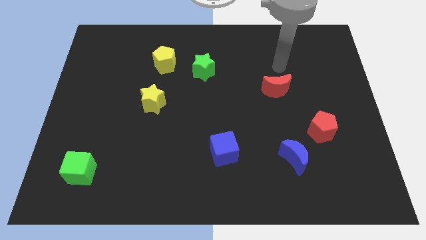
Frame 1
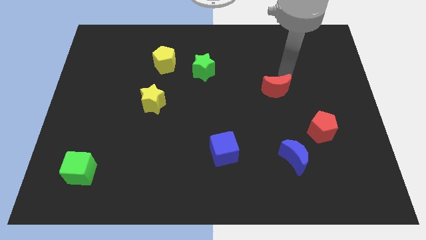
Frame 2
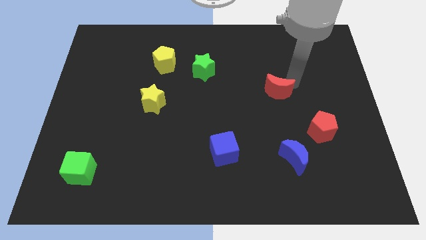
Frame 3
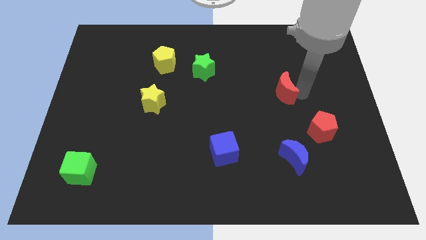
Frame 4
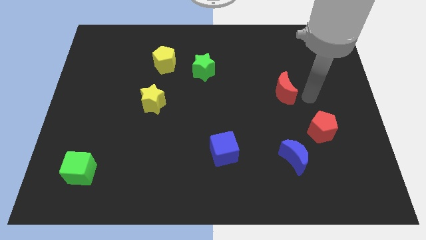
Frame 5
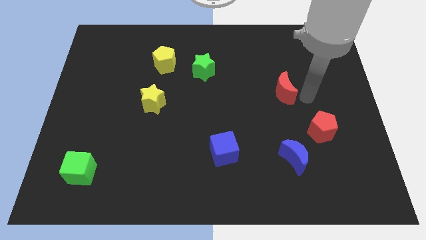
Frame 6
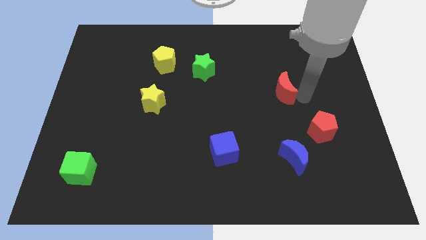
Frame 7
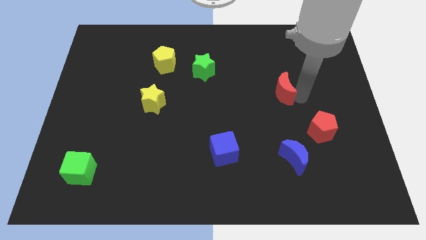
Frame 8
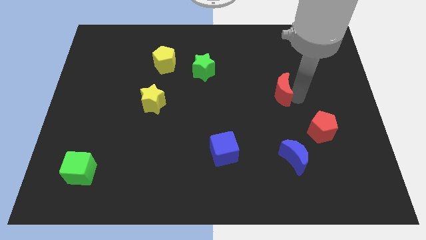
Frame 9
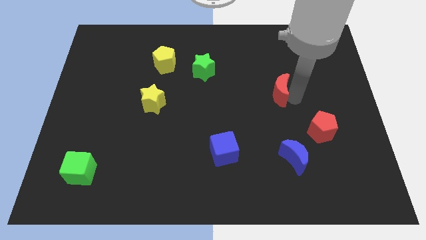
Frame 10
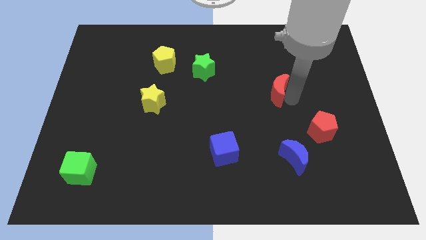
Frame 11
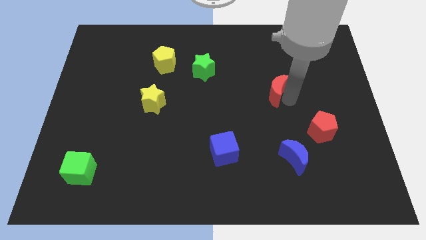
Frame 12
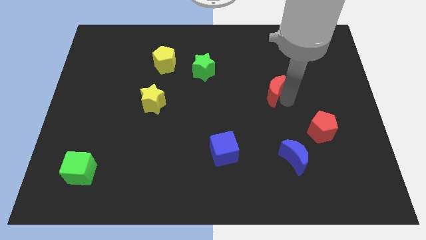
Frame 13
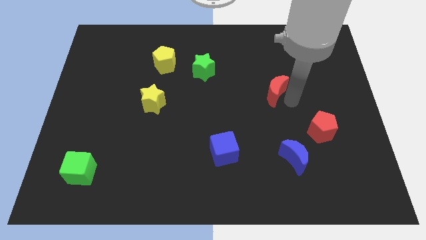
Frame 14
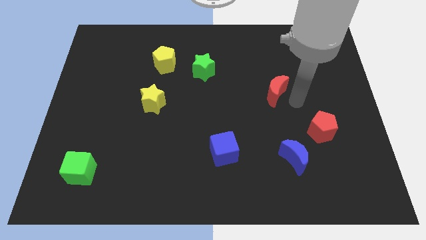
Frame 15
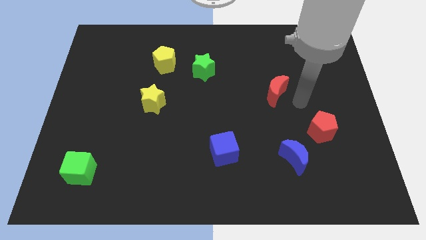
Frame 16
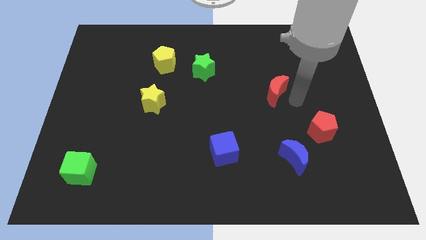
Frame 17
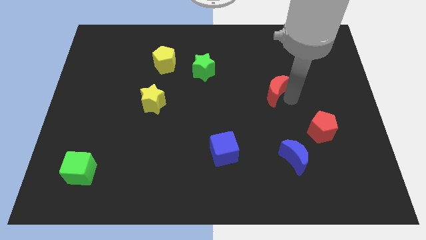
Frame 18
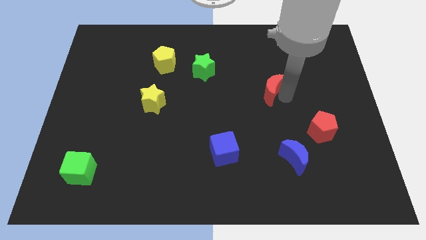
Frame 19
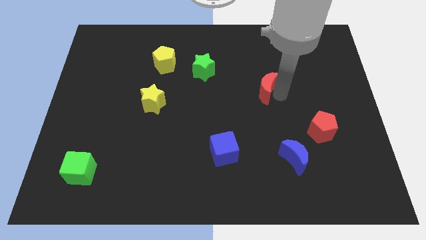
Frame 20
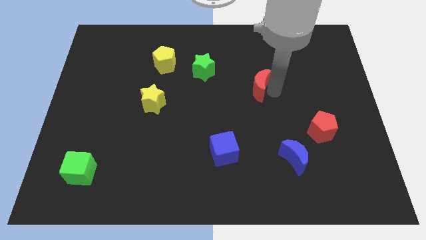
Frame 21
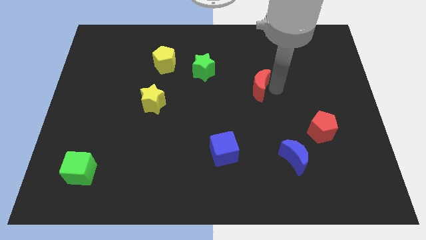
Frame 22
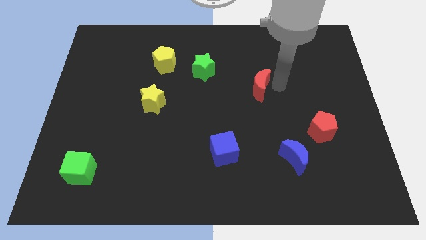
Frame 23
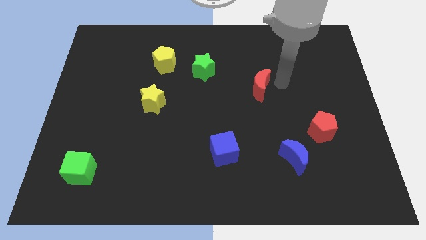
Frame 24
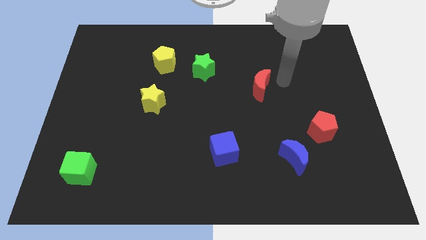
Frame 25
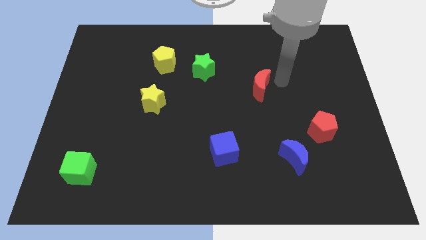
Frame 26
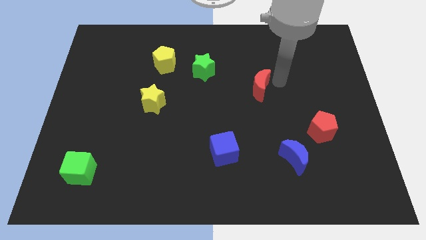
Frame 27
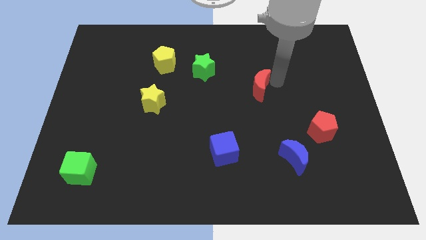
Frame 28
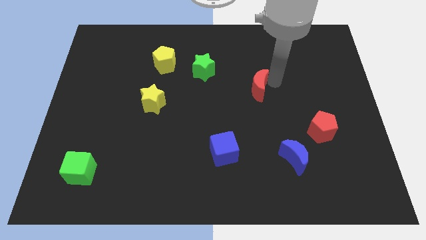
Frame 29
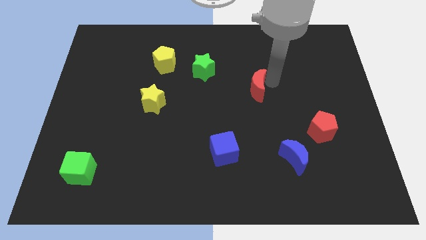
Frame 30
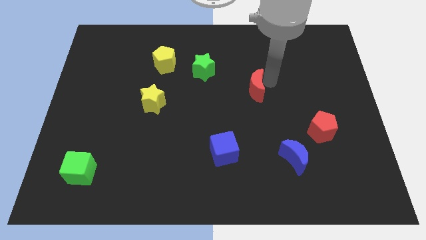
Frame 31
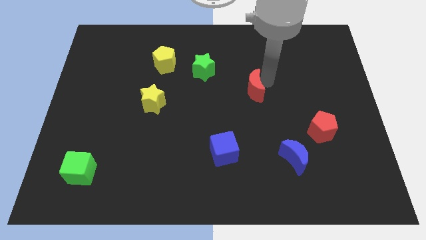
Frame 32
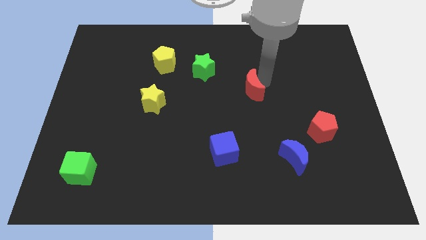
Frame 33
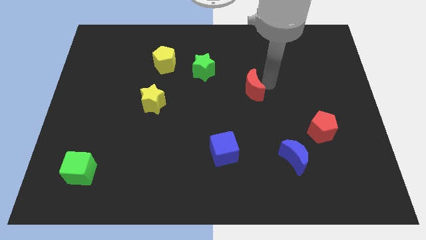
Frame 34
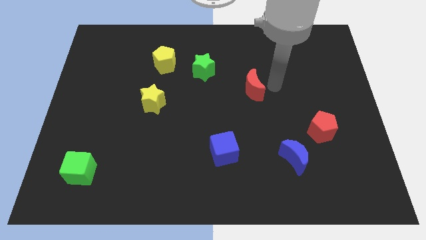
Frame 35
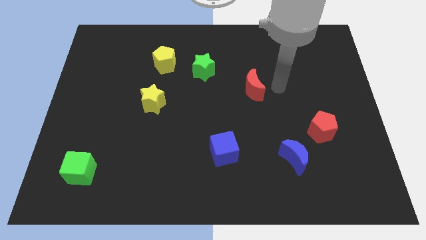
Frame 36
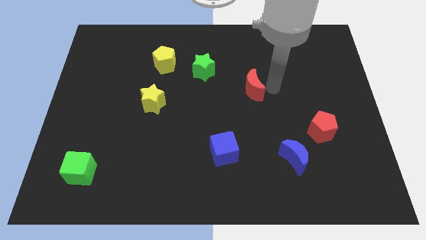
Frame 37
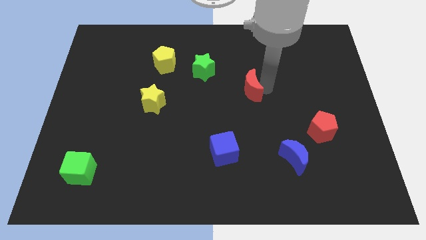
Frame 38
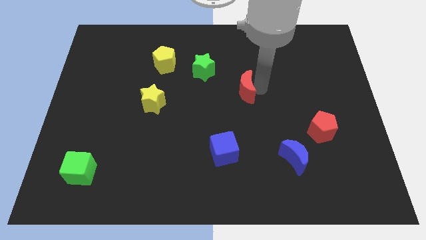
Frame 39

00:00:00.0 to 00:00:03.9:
move the red moon left a bit

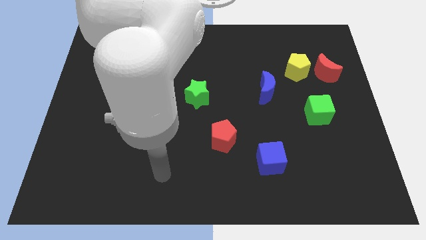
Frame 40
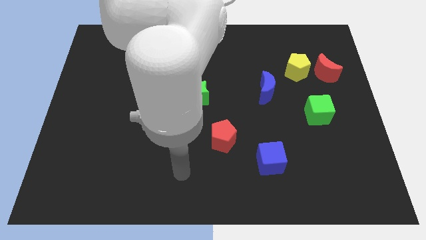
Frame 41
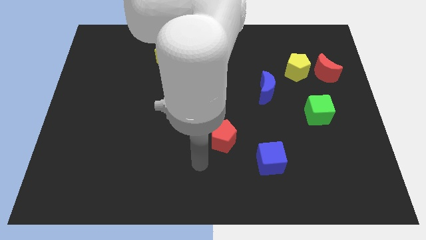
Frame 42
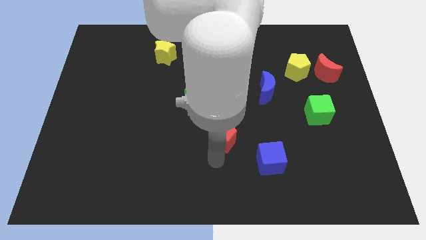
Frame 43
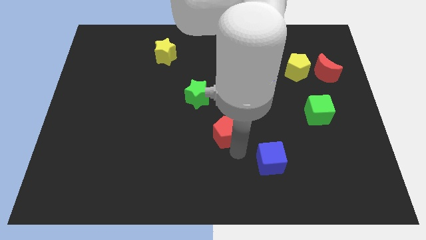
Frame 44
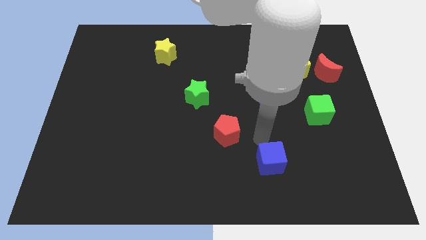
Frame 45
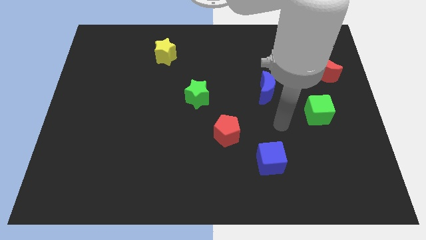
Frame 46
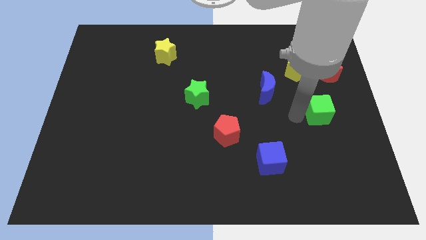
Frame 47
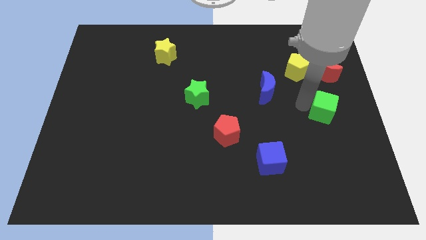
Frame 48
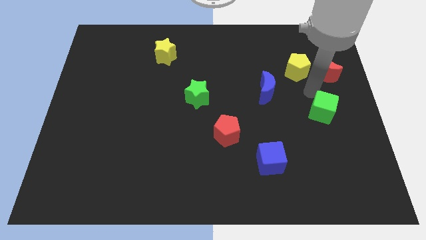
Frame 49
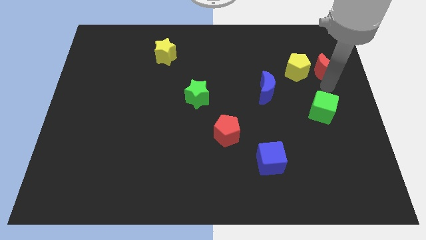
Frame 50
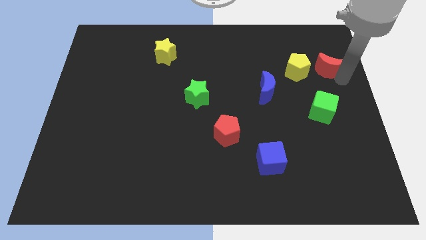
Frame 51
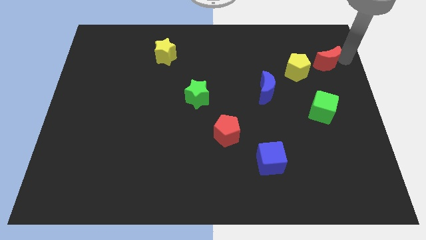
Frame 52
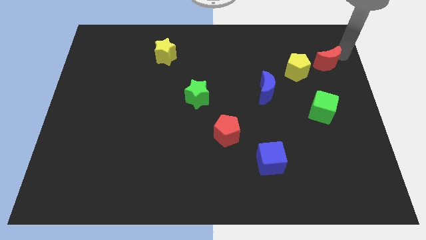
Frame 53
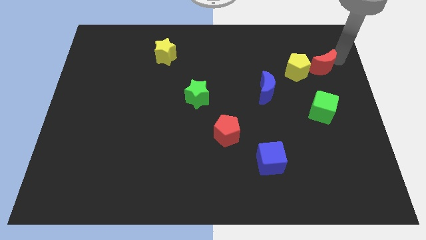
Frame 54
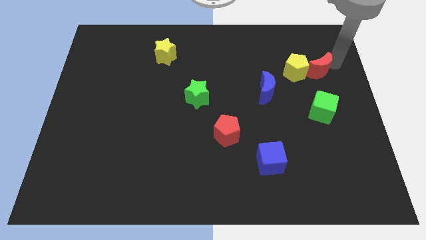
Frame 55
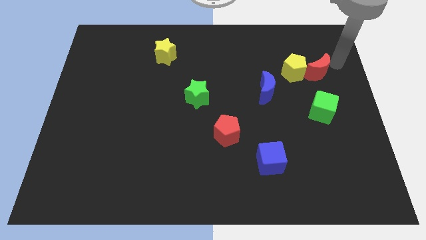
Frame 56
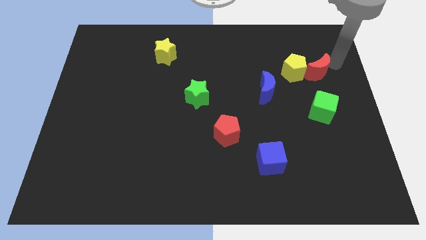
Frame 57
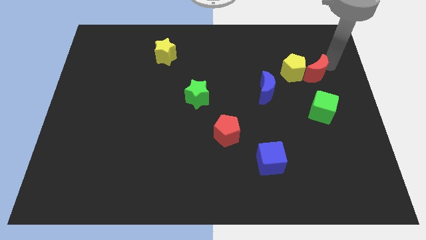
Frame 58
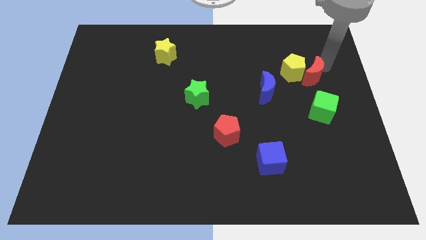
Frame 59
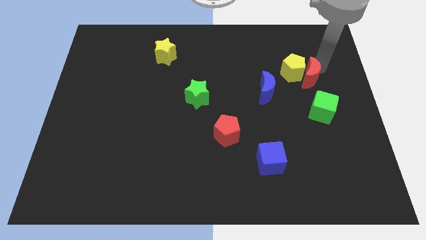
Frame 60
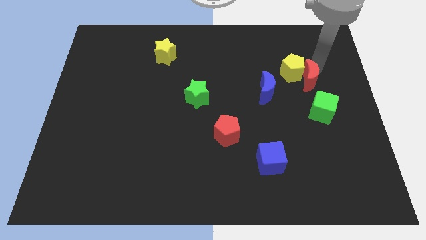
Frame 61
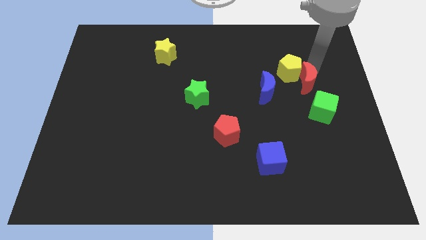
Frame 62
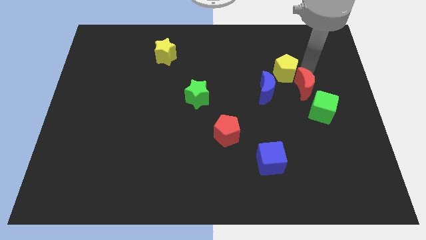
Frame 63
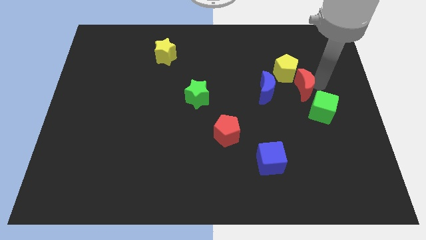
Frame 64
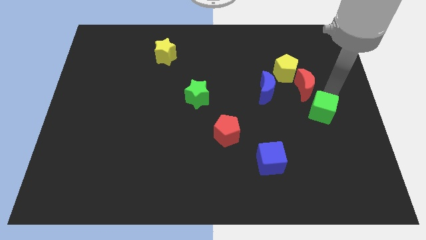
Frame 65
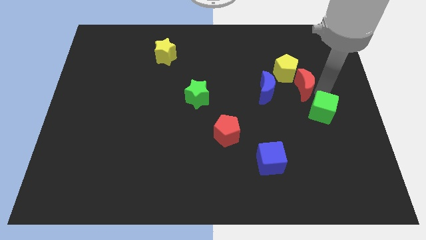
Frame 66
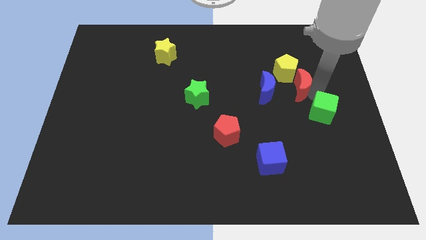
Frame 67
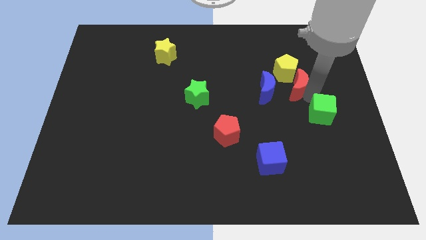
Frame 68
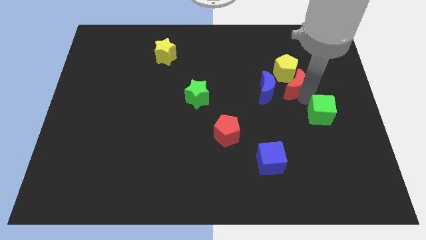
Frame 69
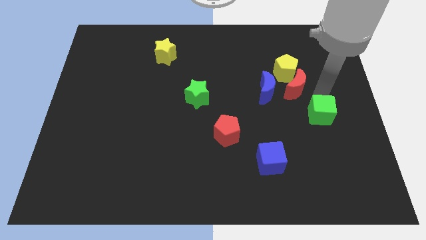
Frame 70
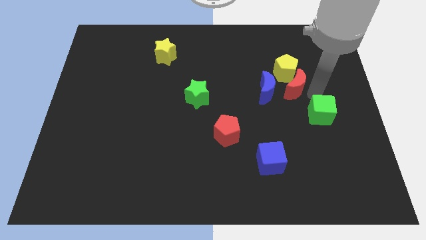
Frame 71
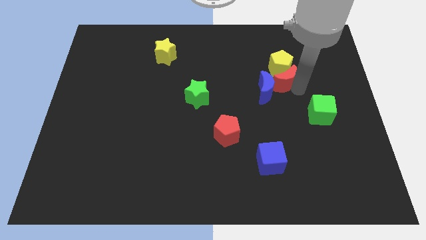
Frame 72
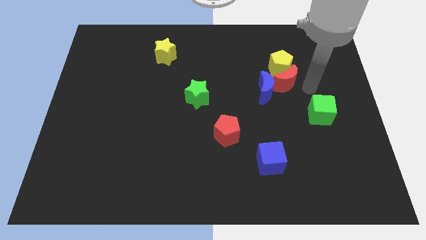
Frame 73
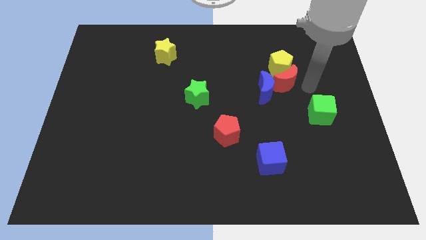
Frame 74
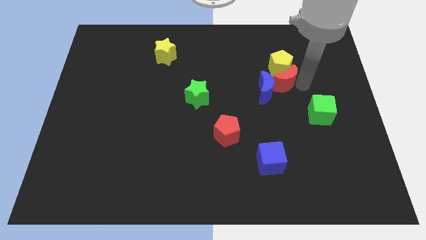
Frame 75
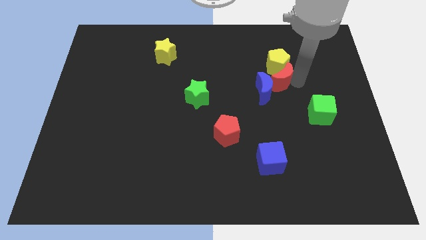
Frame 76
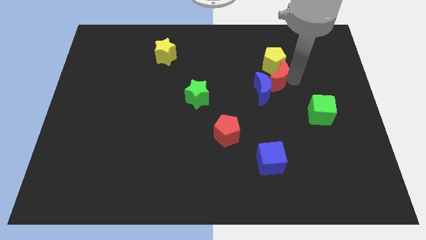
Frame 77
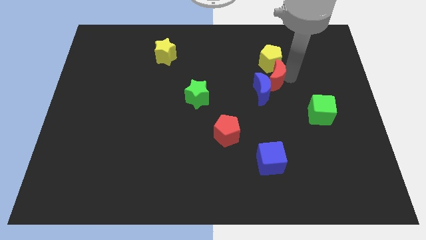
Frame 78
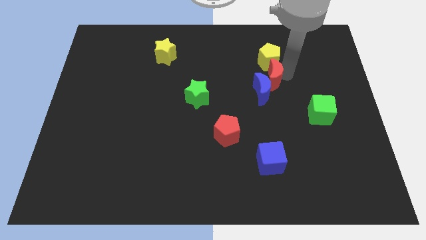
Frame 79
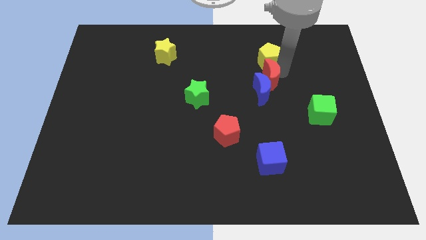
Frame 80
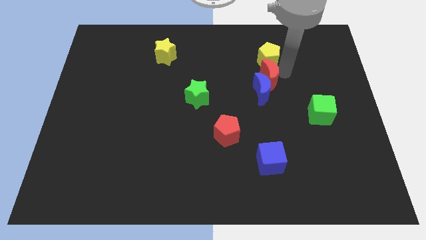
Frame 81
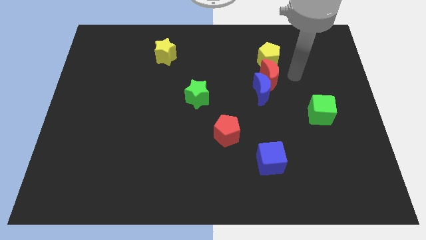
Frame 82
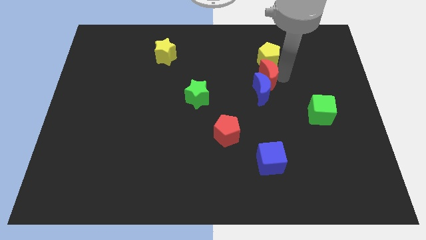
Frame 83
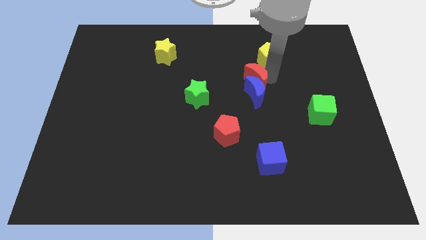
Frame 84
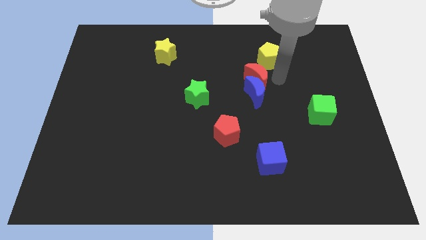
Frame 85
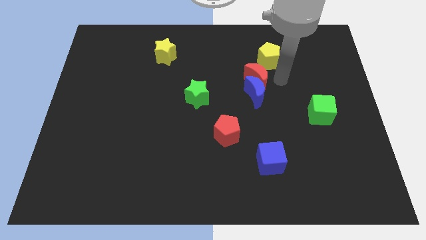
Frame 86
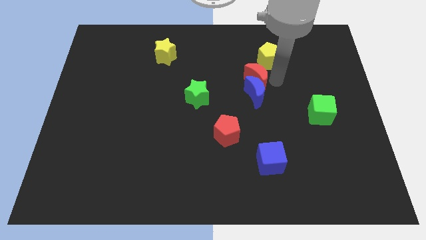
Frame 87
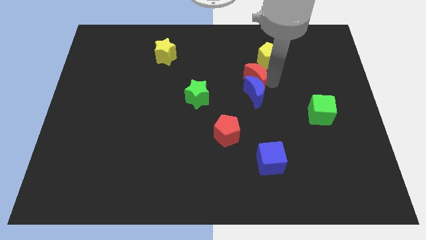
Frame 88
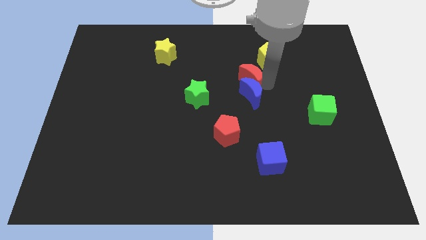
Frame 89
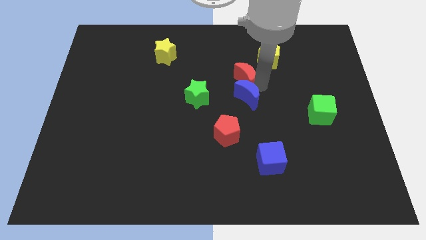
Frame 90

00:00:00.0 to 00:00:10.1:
move the red moon left
